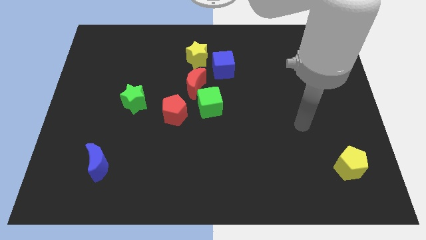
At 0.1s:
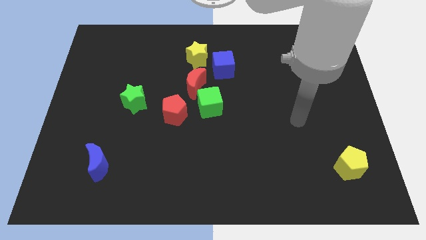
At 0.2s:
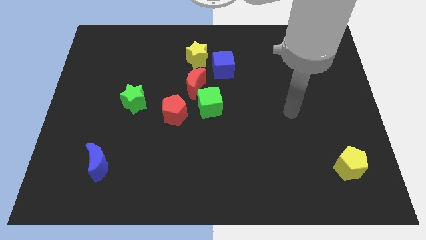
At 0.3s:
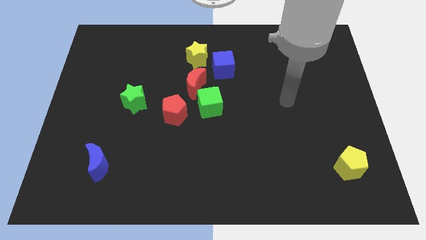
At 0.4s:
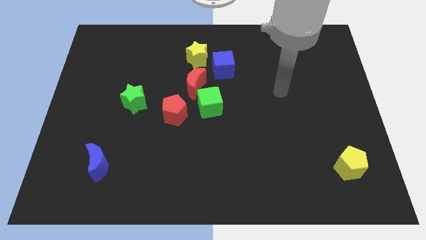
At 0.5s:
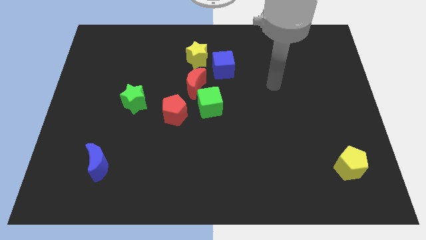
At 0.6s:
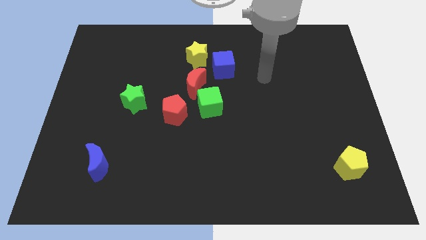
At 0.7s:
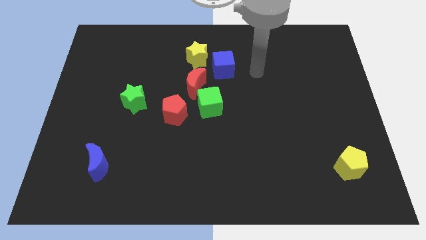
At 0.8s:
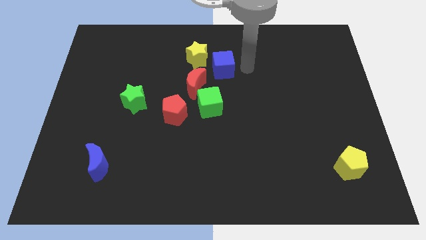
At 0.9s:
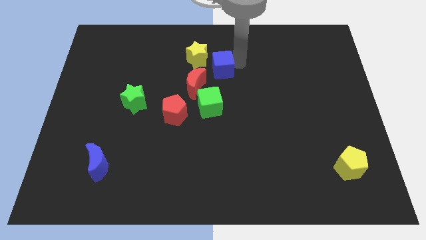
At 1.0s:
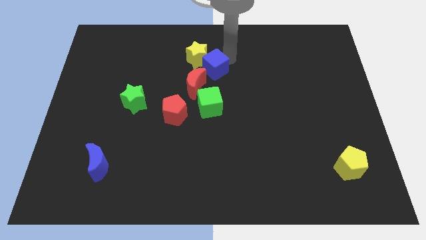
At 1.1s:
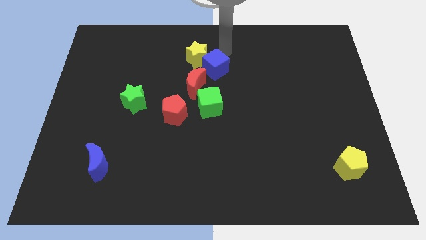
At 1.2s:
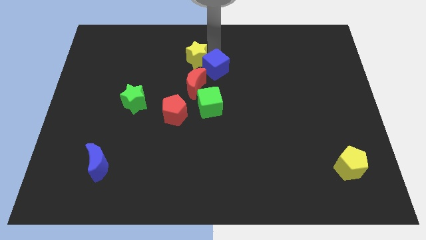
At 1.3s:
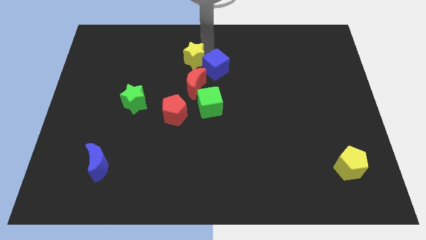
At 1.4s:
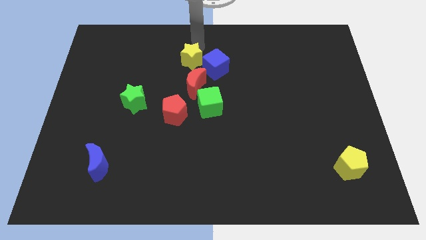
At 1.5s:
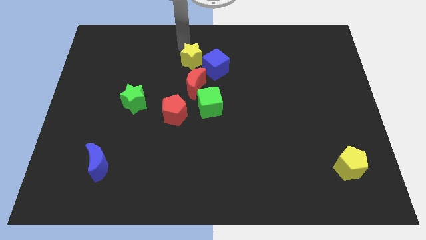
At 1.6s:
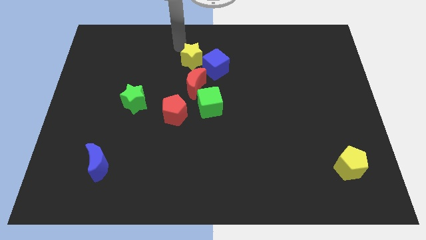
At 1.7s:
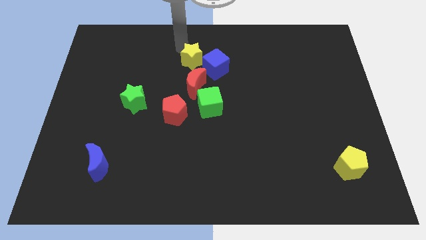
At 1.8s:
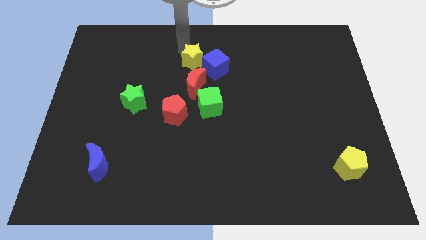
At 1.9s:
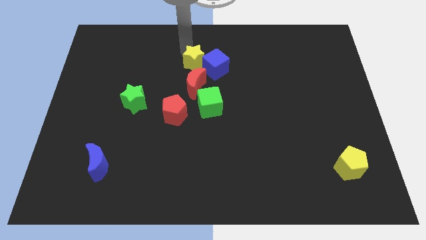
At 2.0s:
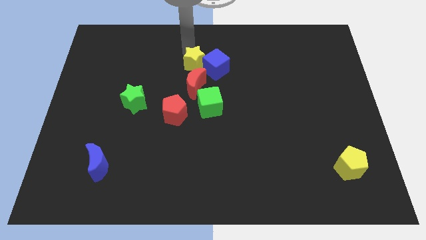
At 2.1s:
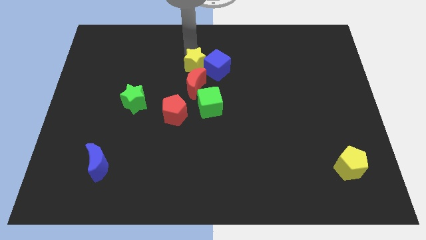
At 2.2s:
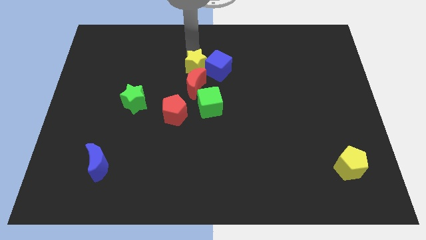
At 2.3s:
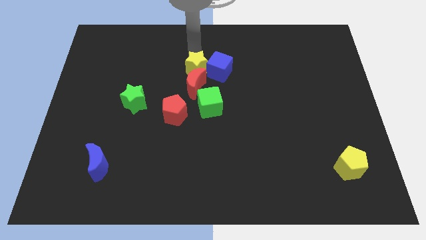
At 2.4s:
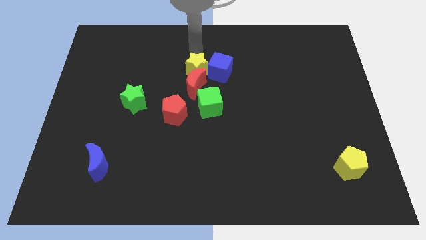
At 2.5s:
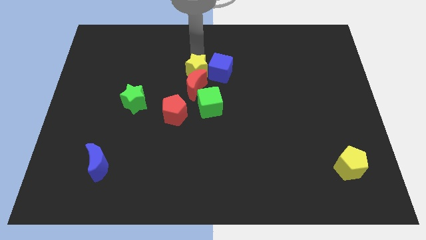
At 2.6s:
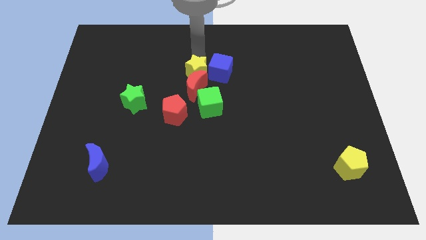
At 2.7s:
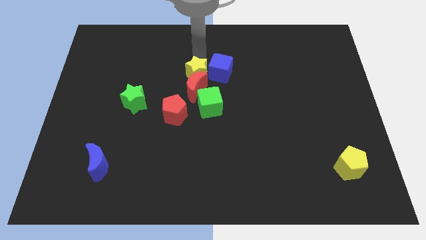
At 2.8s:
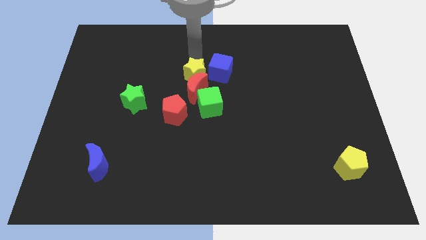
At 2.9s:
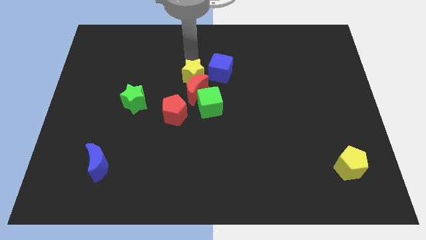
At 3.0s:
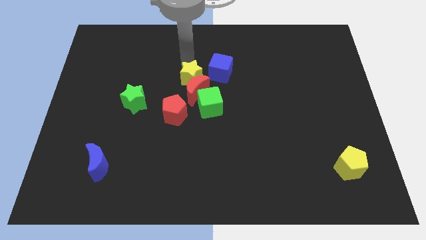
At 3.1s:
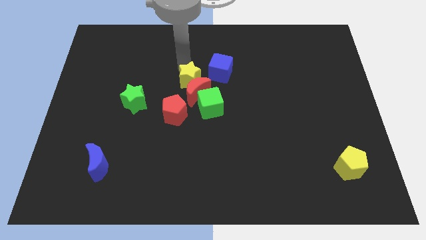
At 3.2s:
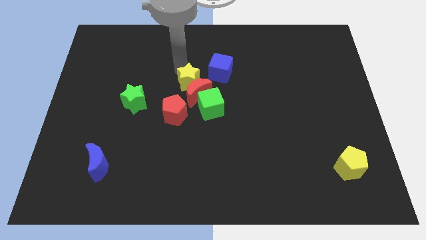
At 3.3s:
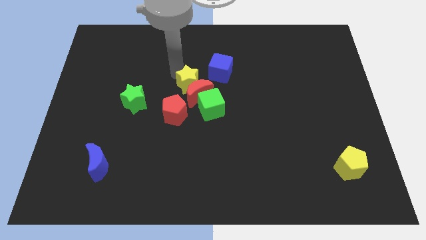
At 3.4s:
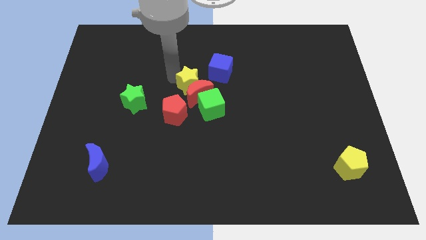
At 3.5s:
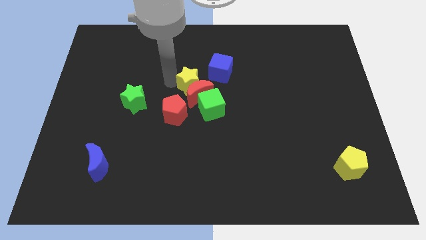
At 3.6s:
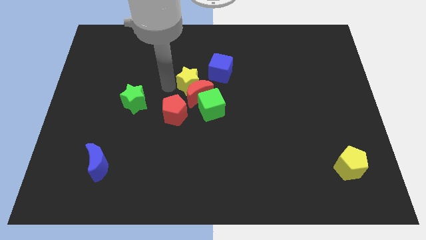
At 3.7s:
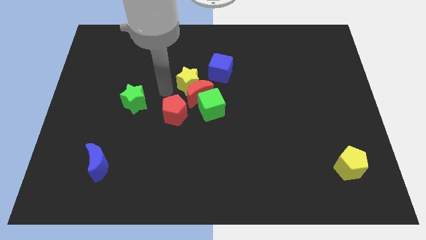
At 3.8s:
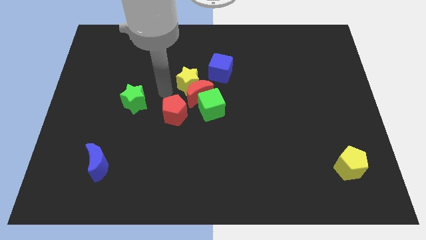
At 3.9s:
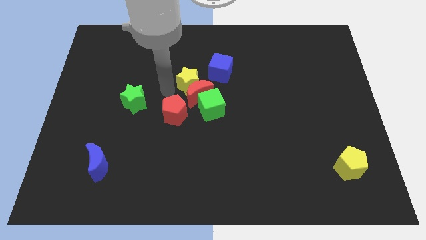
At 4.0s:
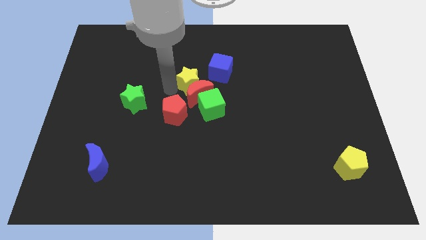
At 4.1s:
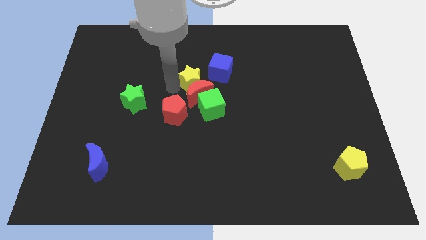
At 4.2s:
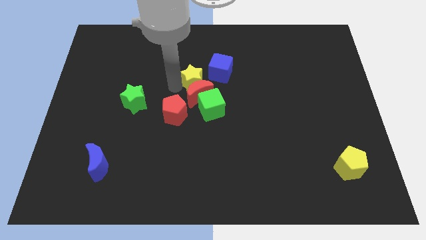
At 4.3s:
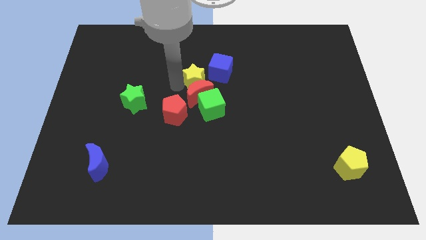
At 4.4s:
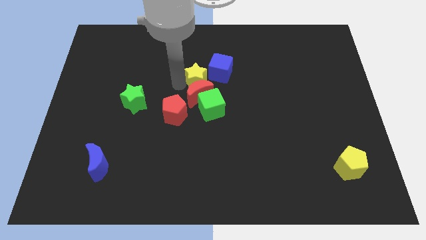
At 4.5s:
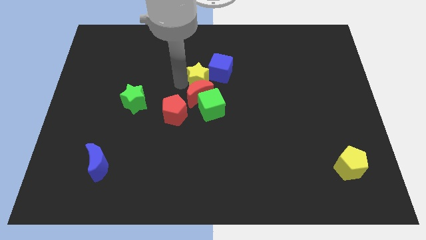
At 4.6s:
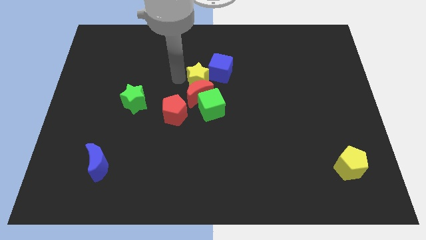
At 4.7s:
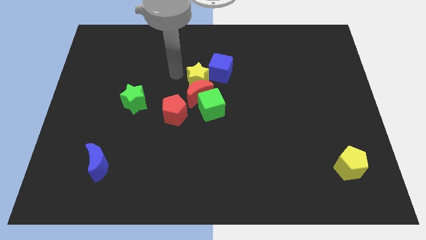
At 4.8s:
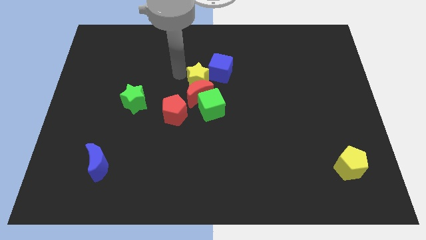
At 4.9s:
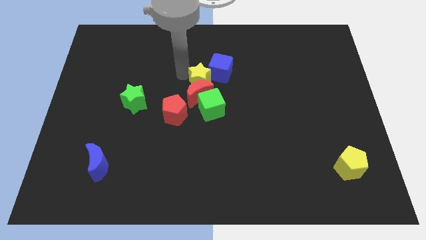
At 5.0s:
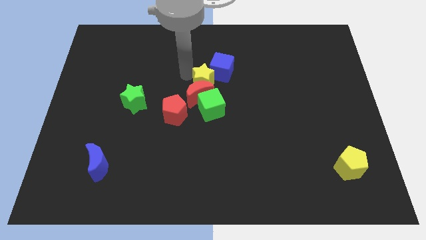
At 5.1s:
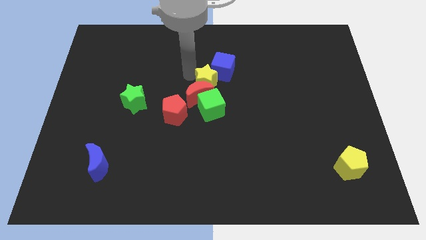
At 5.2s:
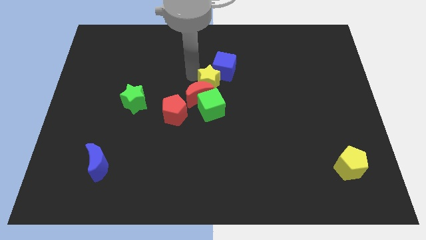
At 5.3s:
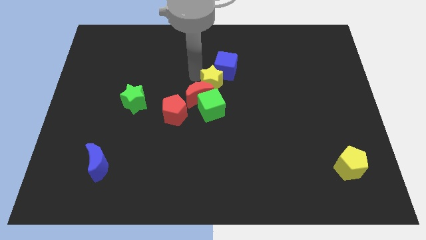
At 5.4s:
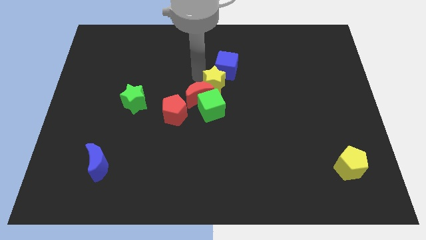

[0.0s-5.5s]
put the yellow star to the top right of the green cube

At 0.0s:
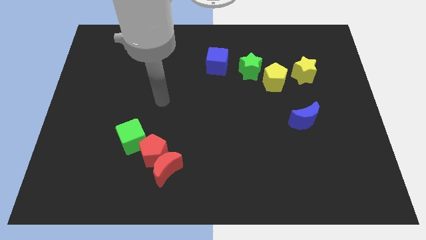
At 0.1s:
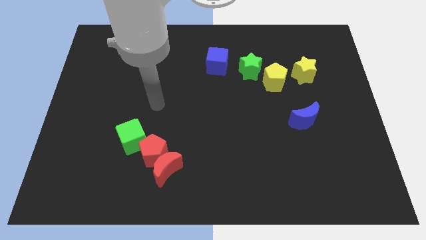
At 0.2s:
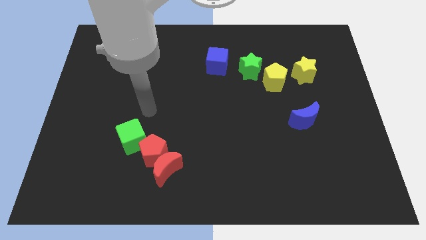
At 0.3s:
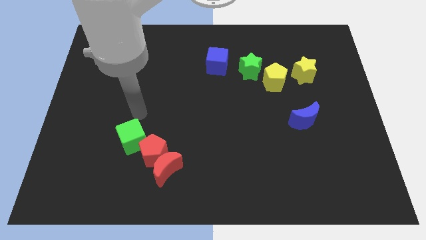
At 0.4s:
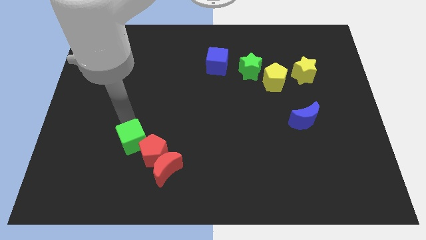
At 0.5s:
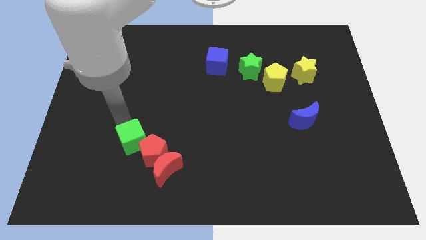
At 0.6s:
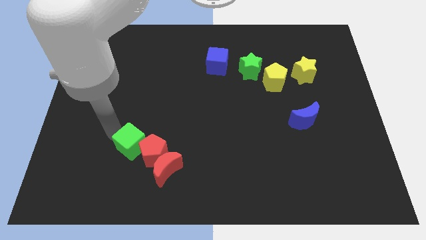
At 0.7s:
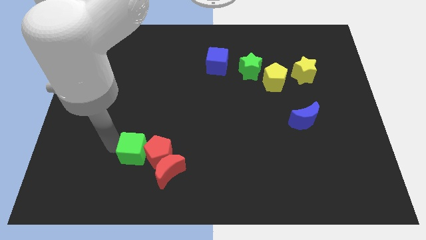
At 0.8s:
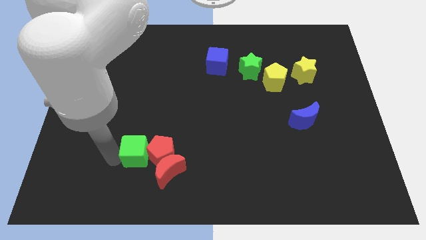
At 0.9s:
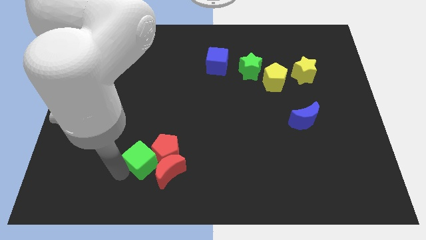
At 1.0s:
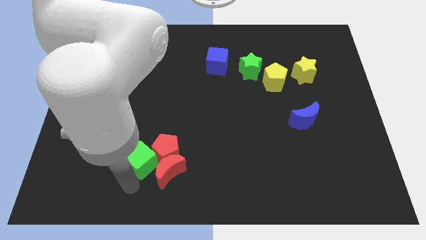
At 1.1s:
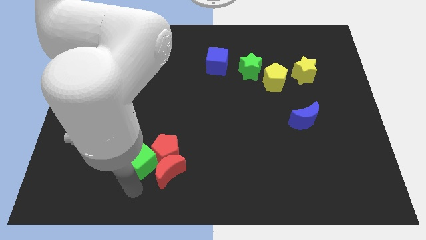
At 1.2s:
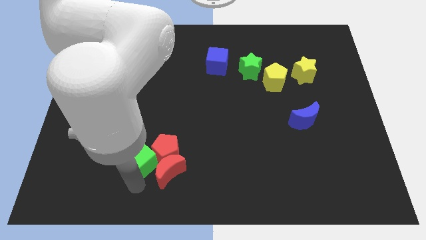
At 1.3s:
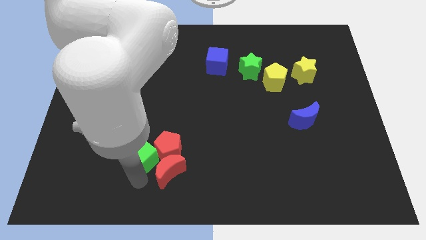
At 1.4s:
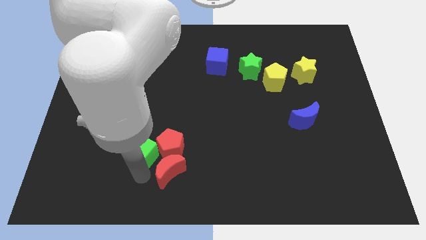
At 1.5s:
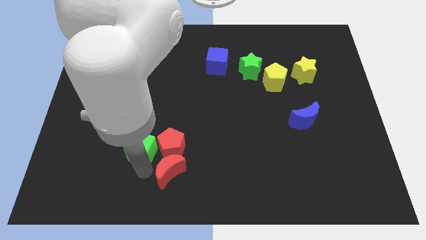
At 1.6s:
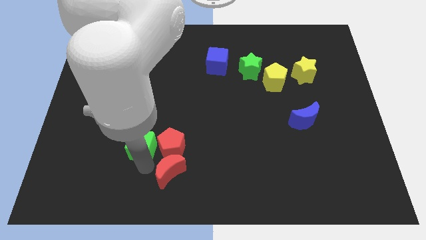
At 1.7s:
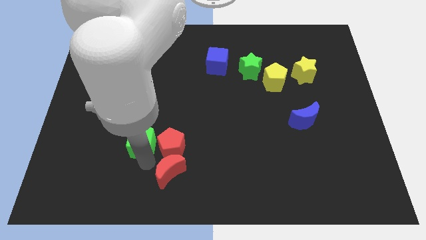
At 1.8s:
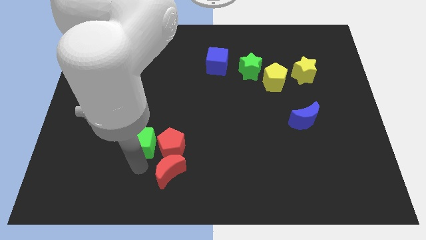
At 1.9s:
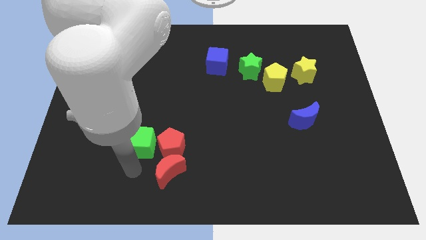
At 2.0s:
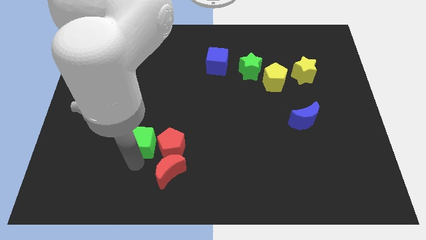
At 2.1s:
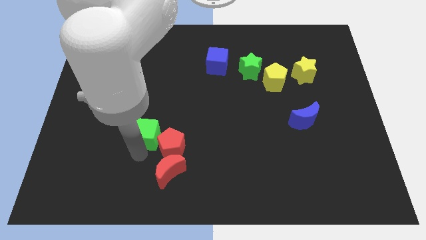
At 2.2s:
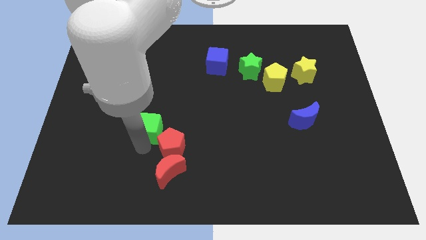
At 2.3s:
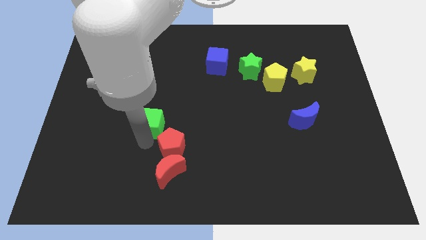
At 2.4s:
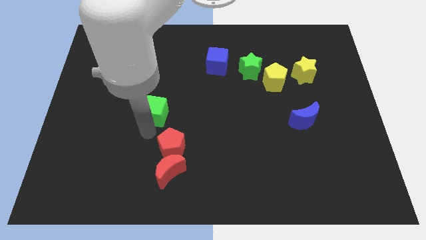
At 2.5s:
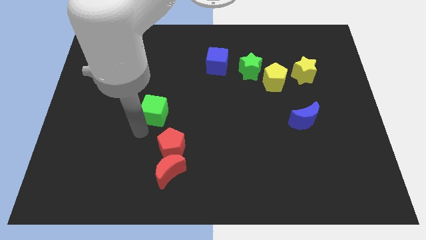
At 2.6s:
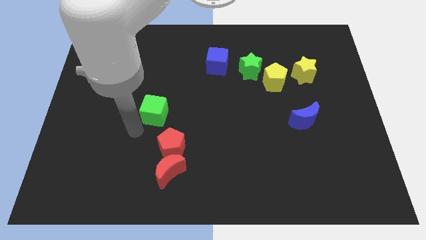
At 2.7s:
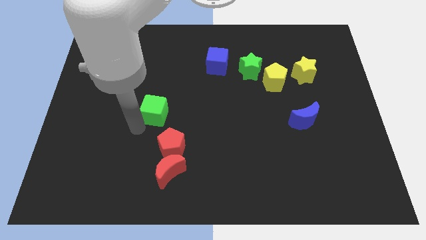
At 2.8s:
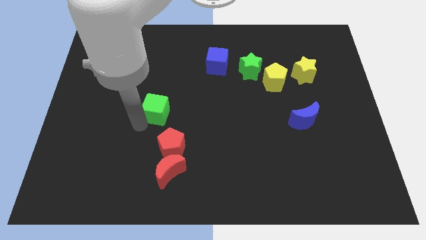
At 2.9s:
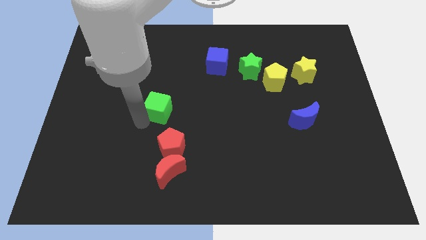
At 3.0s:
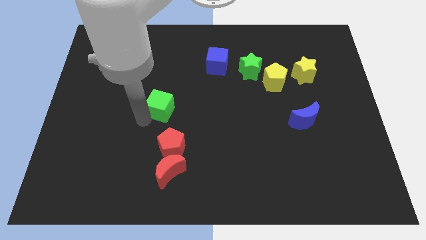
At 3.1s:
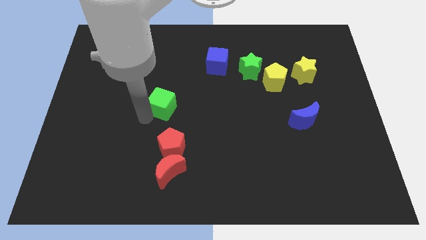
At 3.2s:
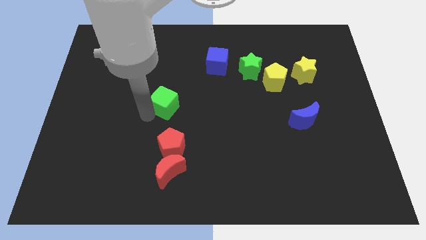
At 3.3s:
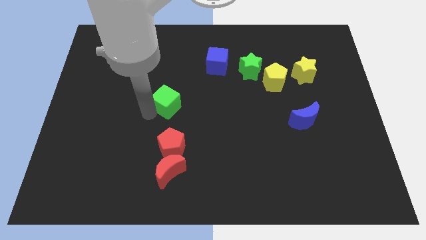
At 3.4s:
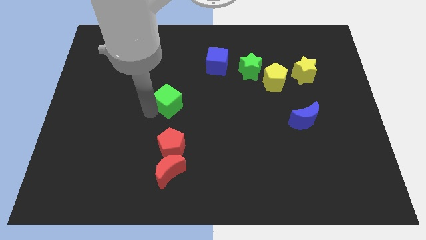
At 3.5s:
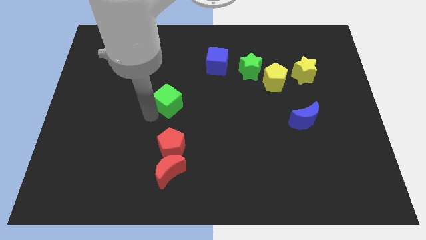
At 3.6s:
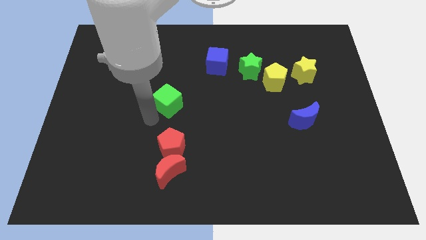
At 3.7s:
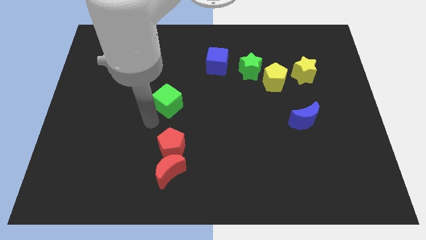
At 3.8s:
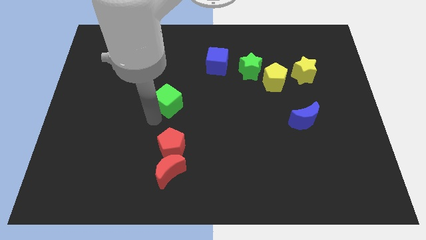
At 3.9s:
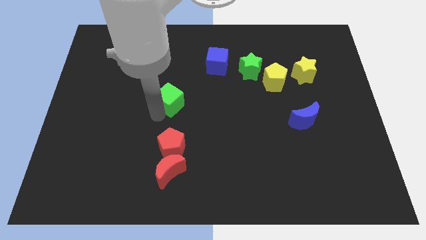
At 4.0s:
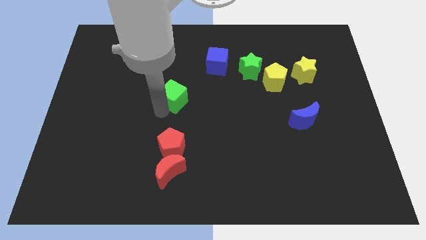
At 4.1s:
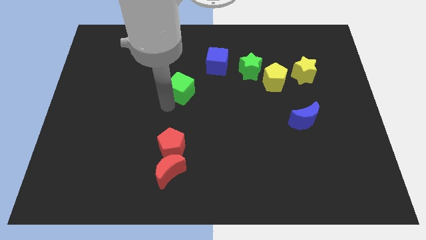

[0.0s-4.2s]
put the green cube to the bottom left of the blue cube
